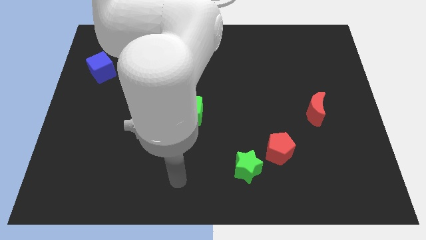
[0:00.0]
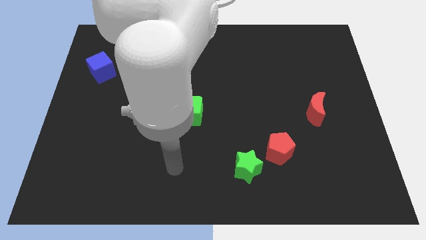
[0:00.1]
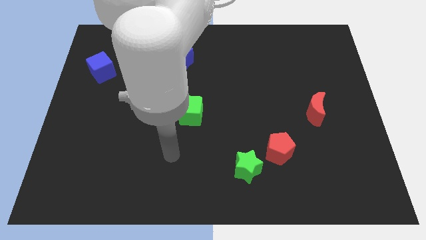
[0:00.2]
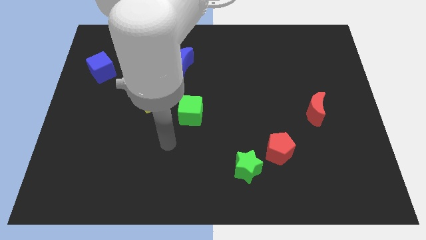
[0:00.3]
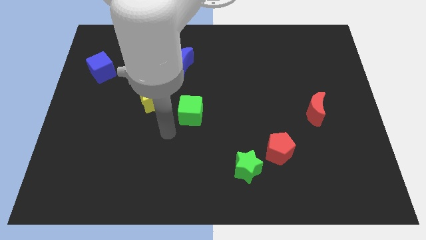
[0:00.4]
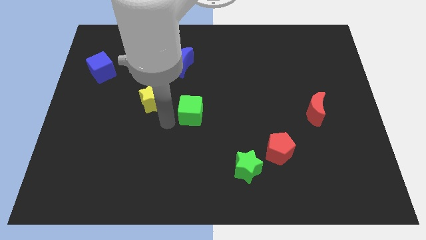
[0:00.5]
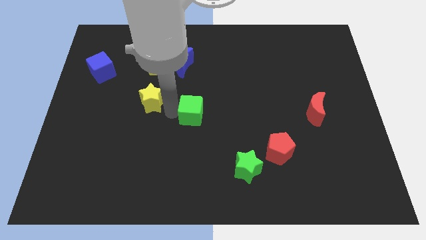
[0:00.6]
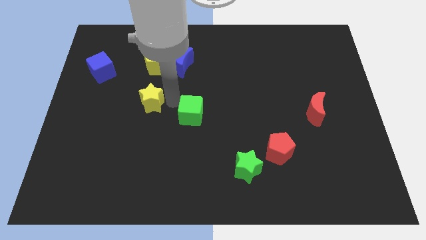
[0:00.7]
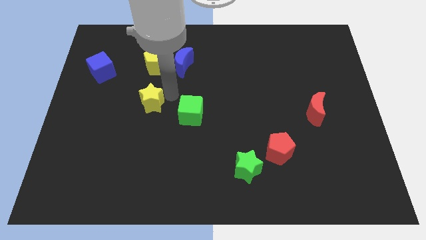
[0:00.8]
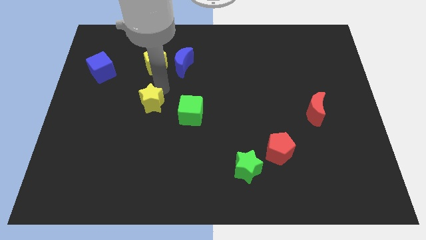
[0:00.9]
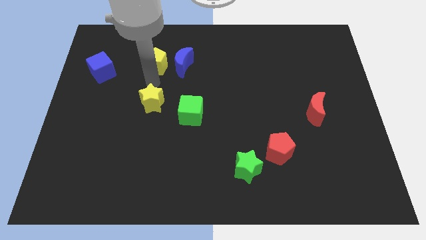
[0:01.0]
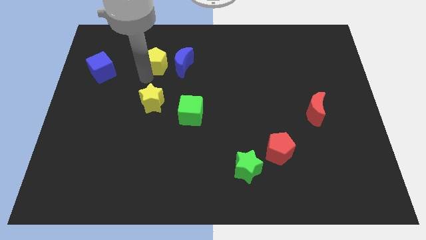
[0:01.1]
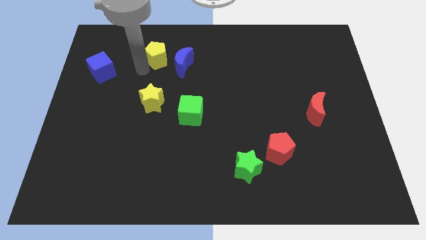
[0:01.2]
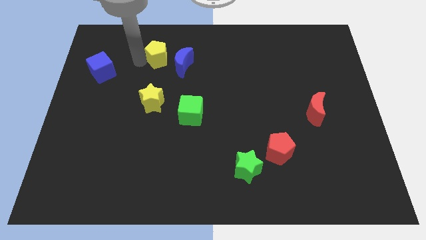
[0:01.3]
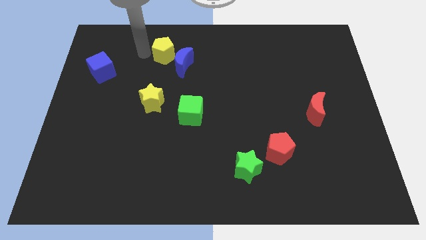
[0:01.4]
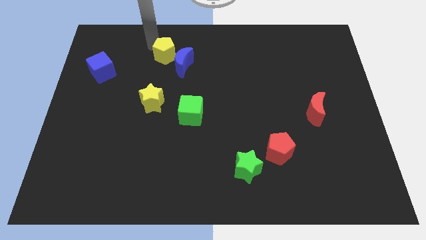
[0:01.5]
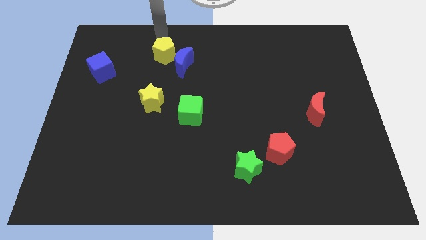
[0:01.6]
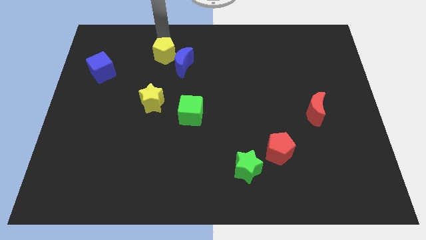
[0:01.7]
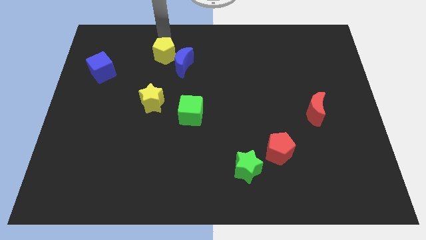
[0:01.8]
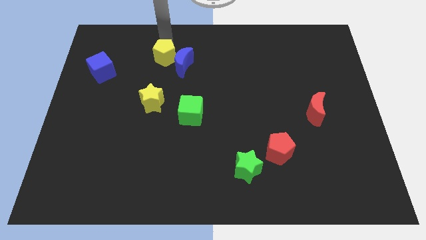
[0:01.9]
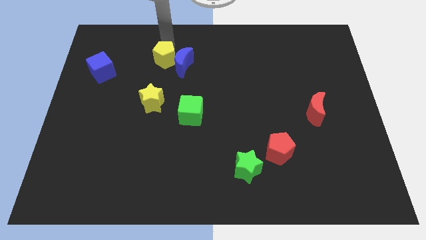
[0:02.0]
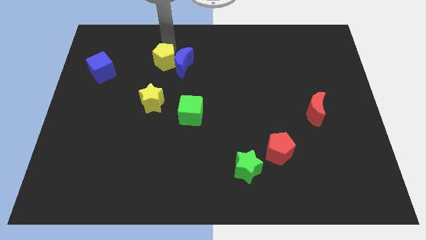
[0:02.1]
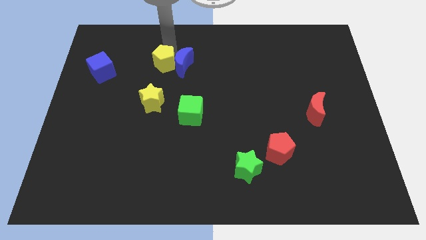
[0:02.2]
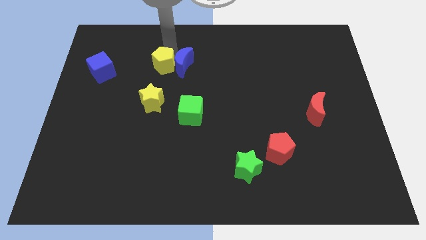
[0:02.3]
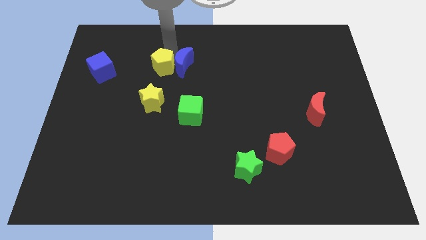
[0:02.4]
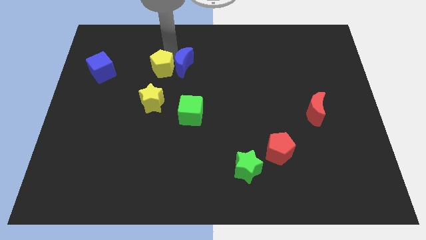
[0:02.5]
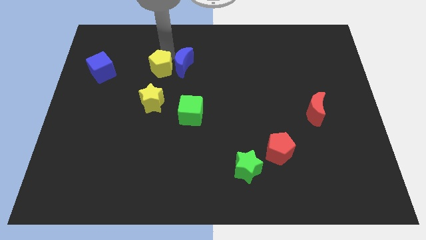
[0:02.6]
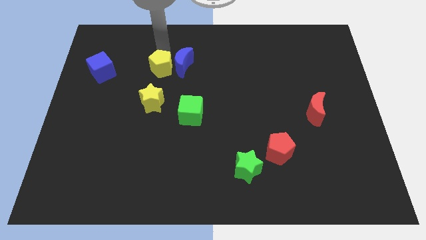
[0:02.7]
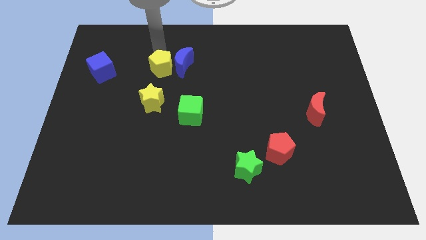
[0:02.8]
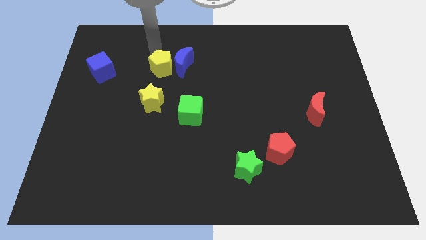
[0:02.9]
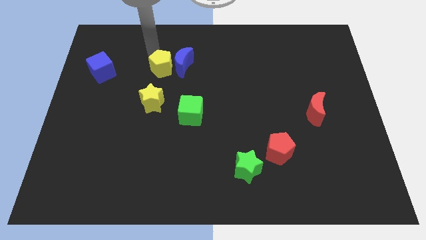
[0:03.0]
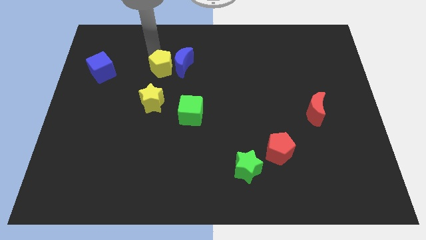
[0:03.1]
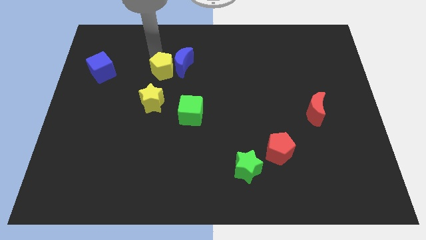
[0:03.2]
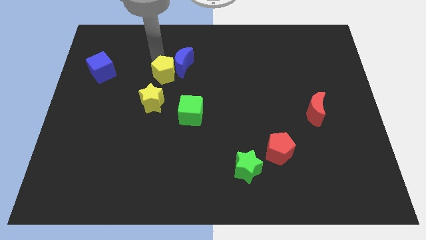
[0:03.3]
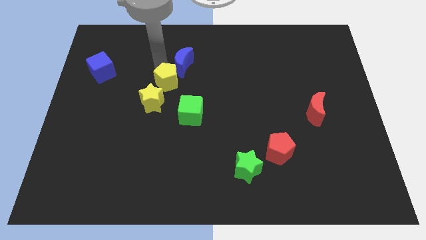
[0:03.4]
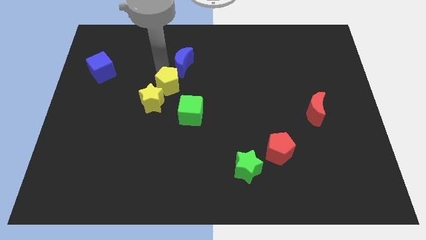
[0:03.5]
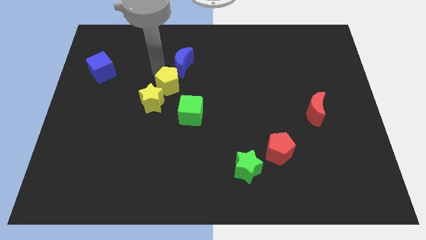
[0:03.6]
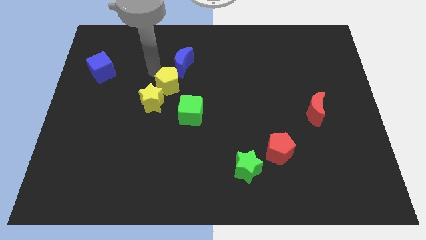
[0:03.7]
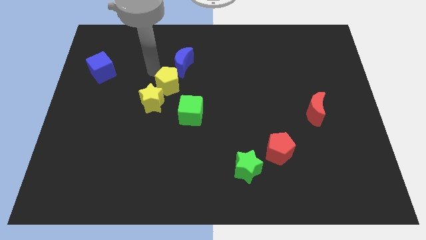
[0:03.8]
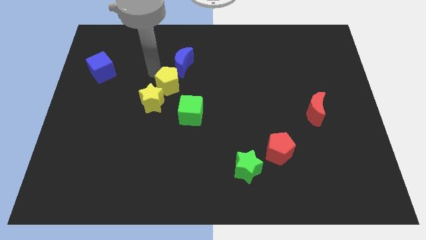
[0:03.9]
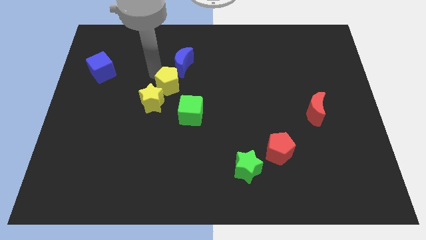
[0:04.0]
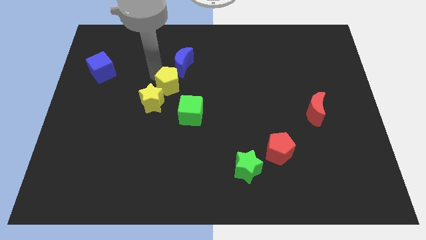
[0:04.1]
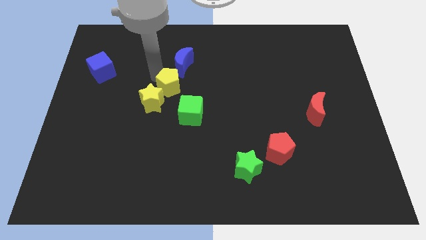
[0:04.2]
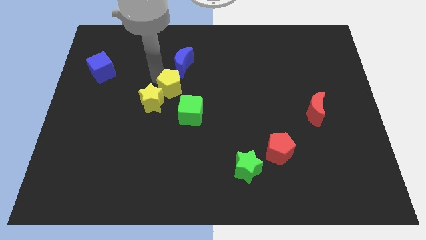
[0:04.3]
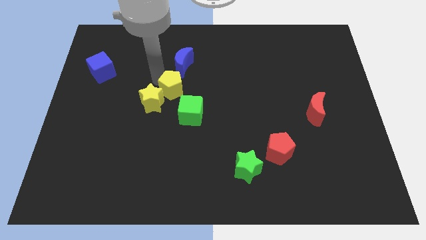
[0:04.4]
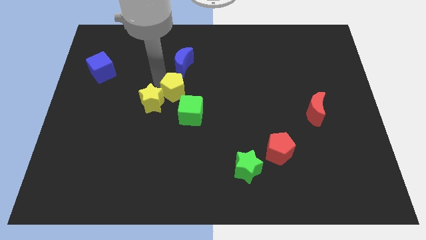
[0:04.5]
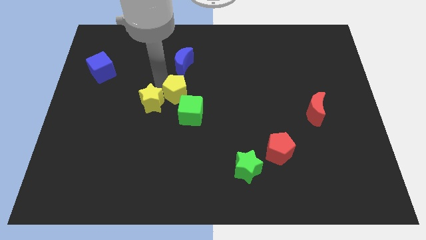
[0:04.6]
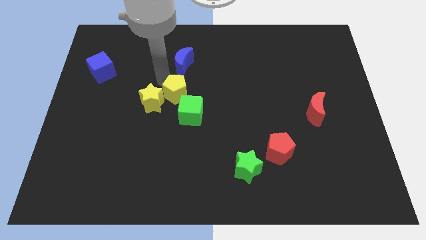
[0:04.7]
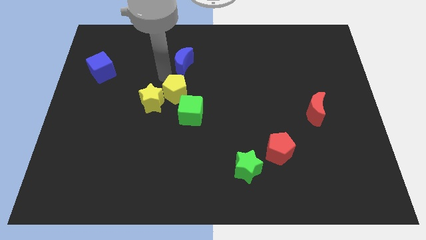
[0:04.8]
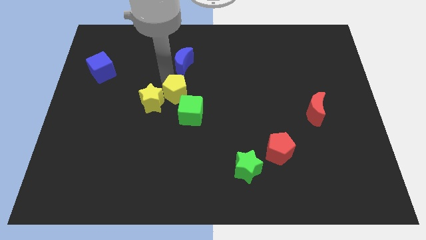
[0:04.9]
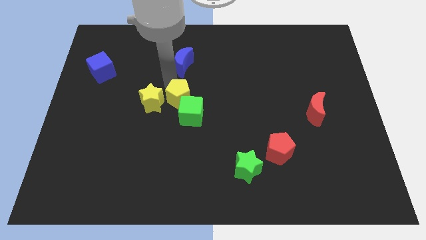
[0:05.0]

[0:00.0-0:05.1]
put the yellow pentagon towards the green cube

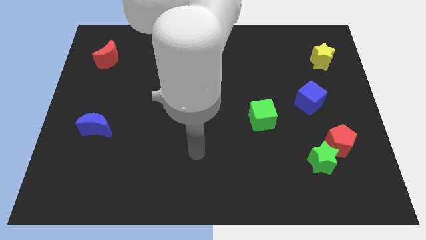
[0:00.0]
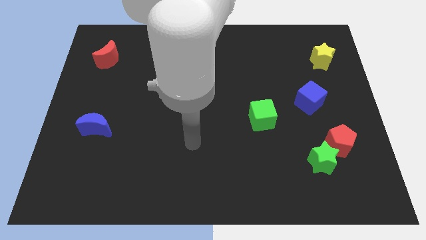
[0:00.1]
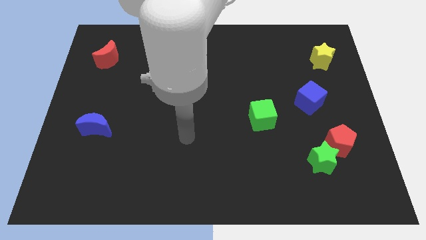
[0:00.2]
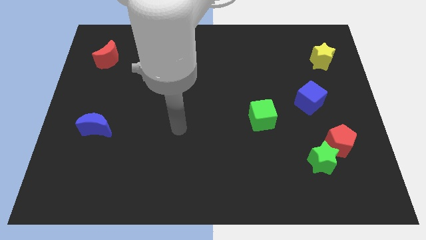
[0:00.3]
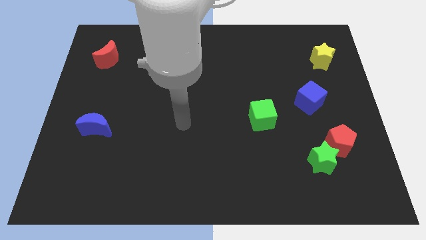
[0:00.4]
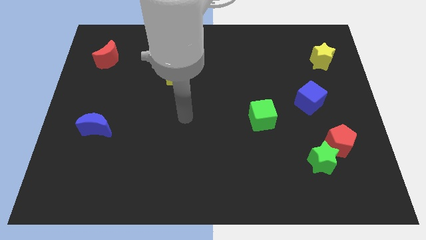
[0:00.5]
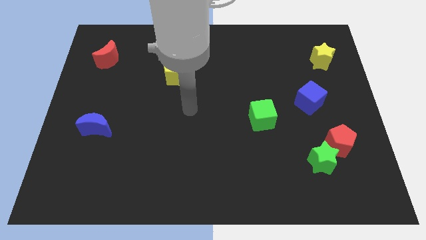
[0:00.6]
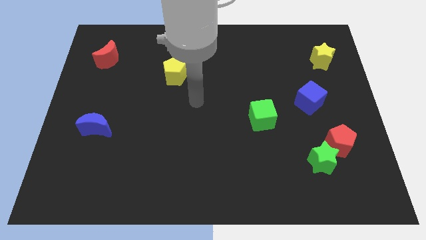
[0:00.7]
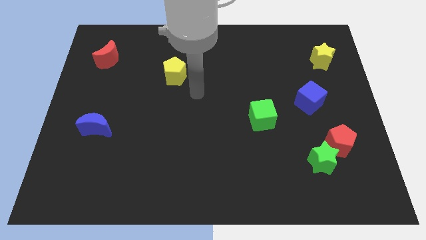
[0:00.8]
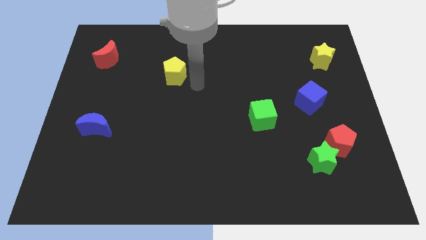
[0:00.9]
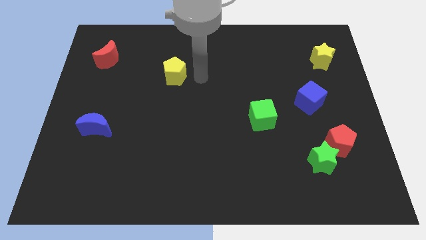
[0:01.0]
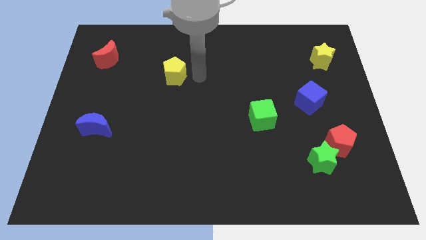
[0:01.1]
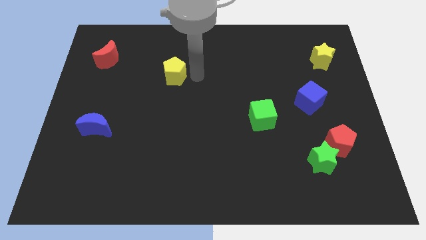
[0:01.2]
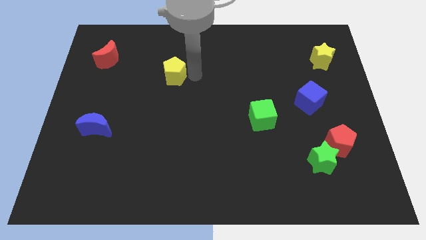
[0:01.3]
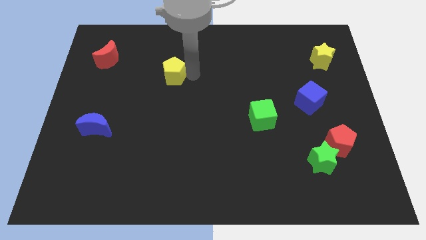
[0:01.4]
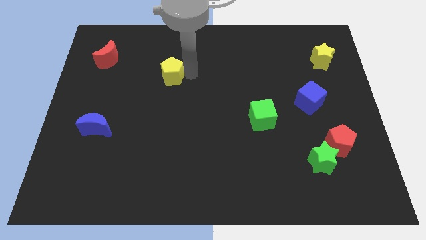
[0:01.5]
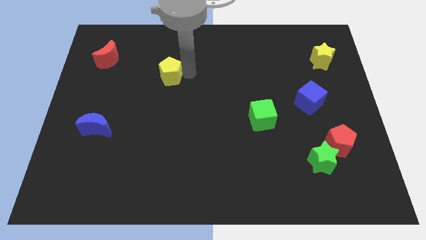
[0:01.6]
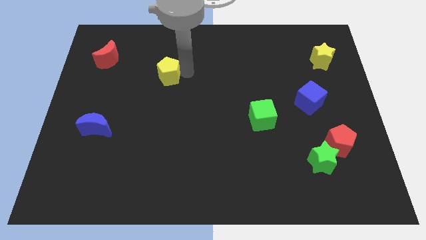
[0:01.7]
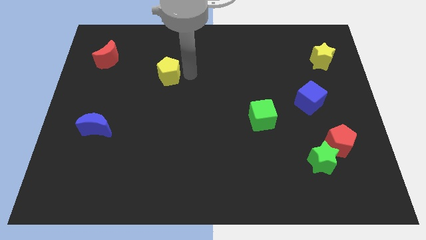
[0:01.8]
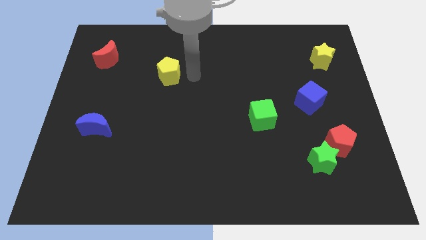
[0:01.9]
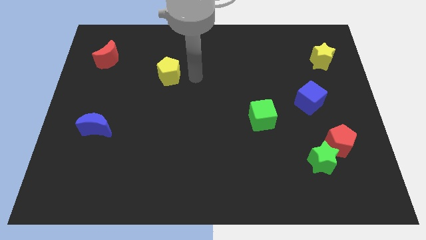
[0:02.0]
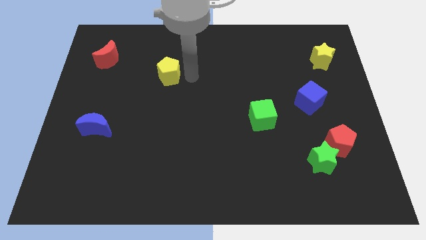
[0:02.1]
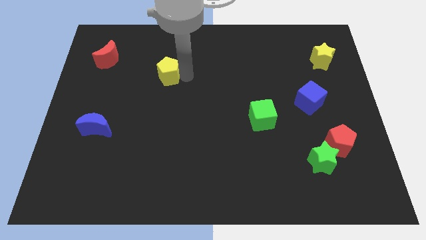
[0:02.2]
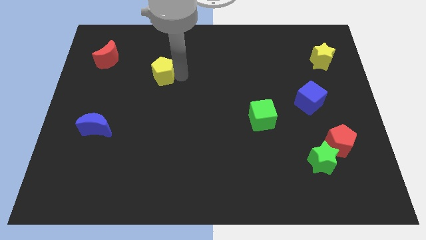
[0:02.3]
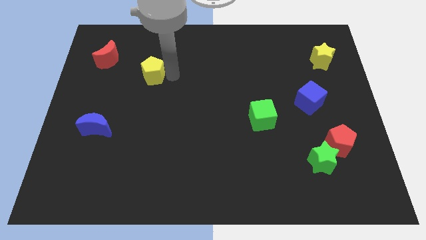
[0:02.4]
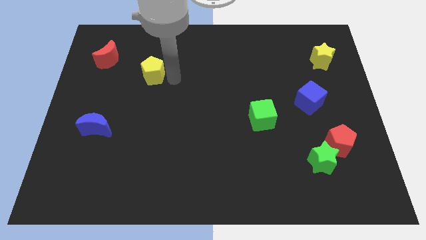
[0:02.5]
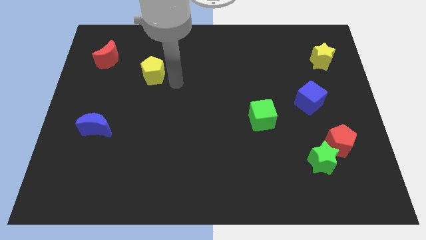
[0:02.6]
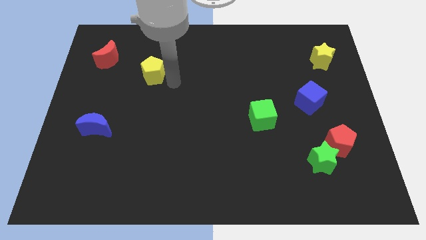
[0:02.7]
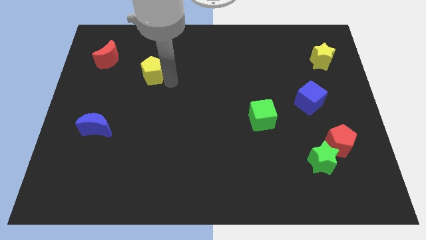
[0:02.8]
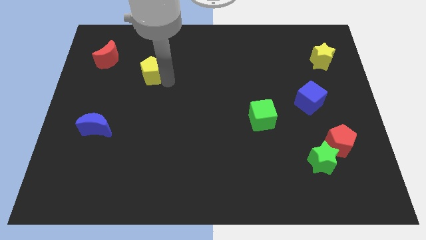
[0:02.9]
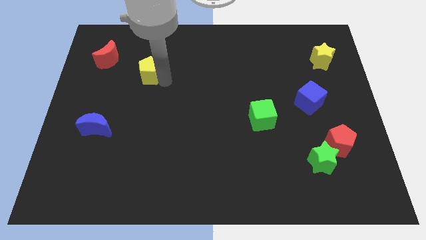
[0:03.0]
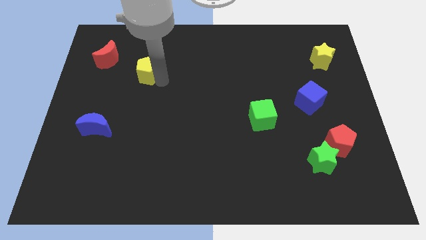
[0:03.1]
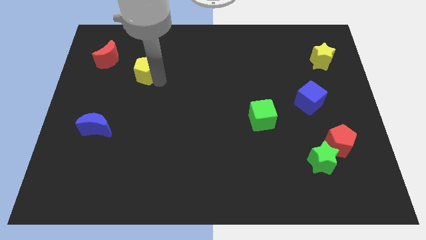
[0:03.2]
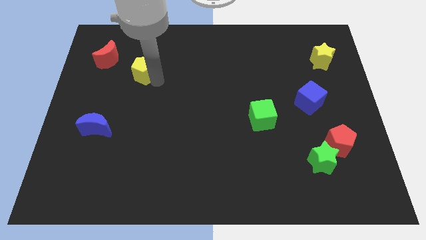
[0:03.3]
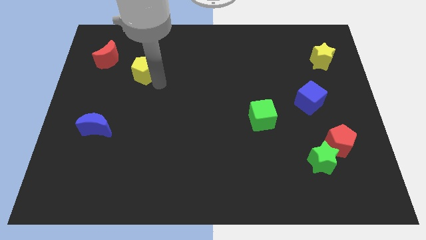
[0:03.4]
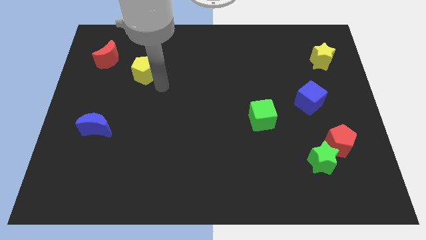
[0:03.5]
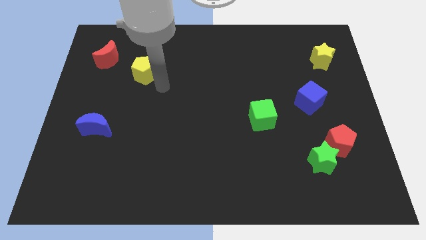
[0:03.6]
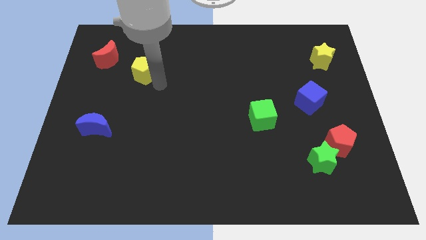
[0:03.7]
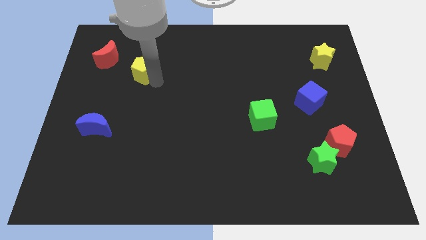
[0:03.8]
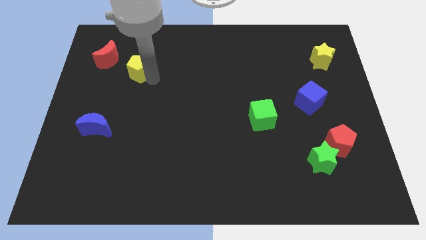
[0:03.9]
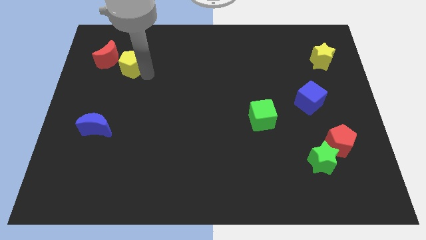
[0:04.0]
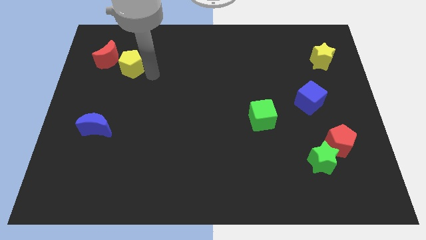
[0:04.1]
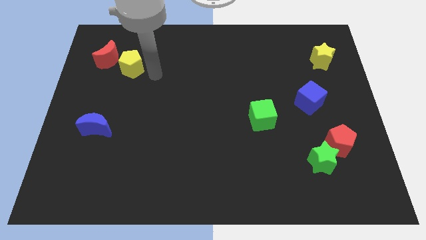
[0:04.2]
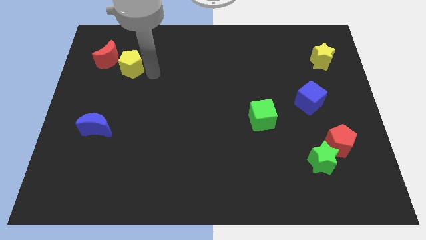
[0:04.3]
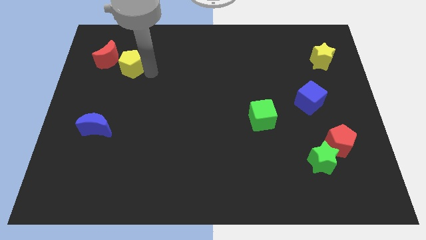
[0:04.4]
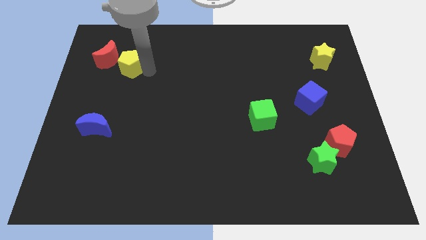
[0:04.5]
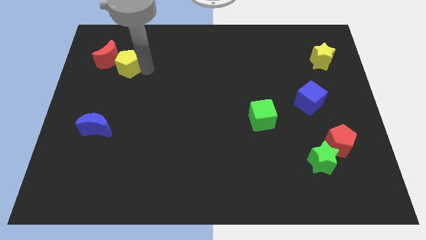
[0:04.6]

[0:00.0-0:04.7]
push the yellow pentagon next to the red moon
